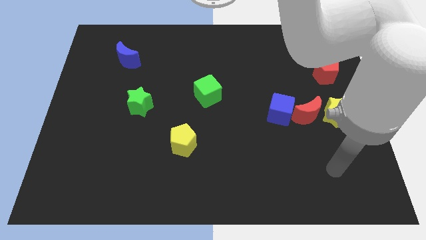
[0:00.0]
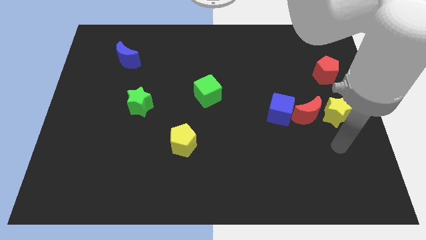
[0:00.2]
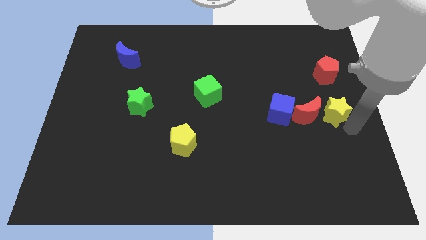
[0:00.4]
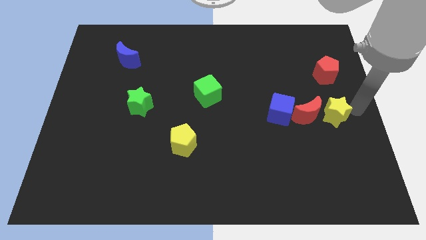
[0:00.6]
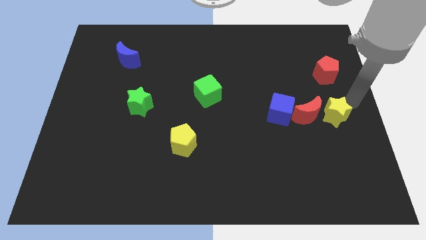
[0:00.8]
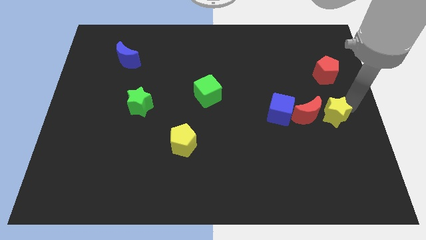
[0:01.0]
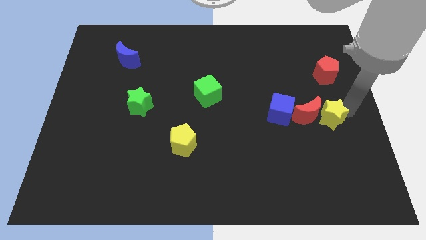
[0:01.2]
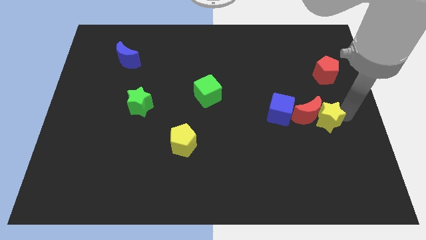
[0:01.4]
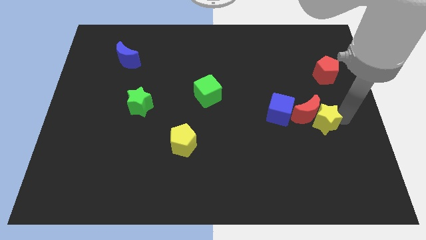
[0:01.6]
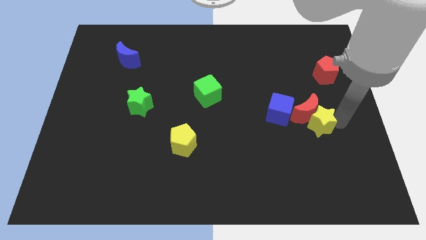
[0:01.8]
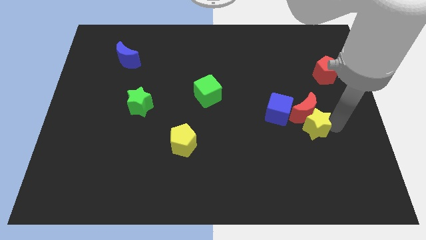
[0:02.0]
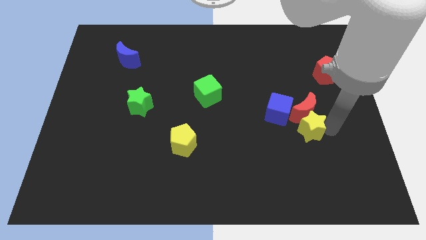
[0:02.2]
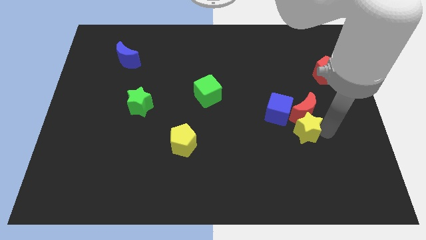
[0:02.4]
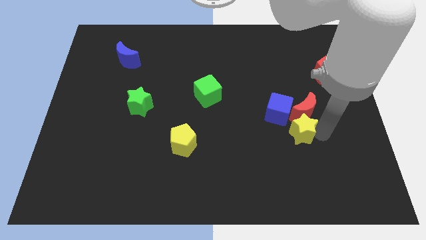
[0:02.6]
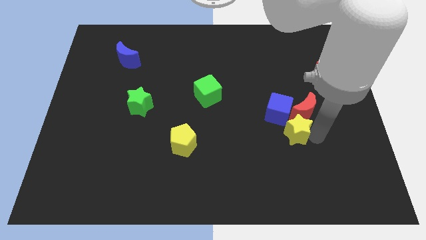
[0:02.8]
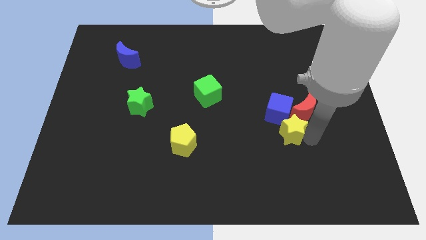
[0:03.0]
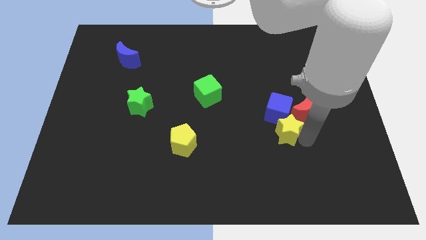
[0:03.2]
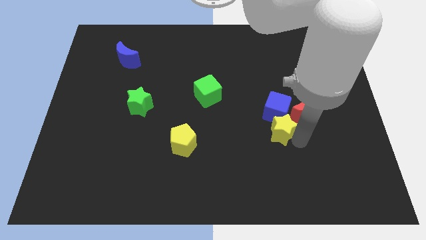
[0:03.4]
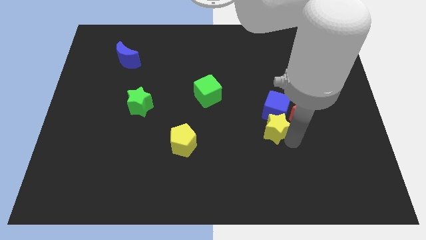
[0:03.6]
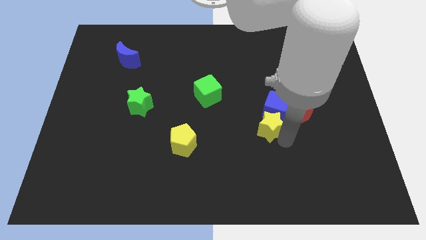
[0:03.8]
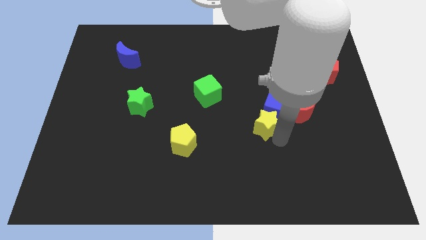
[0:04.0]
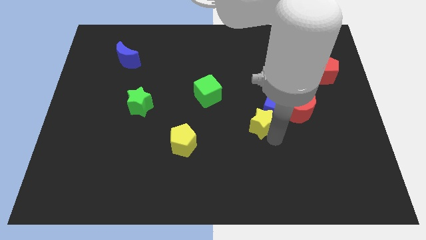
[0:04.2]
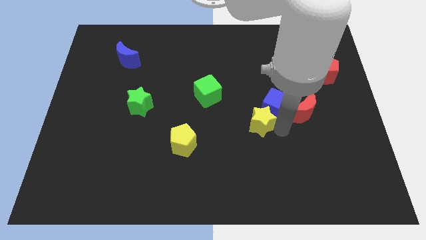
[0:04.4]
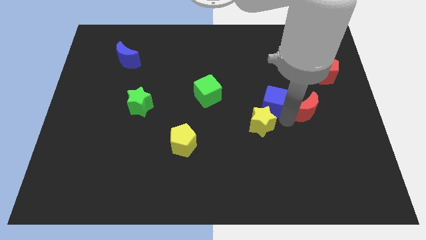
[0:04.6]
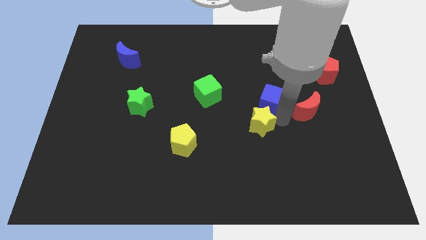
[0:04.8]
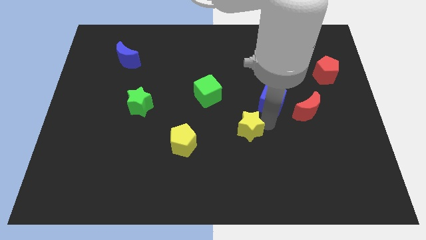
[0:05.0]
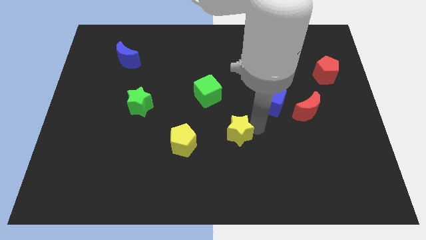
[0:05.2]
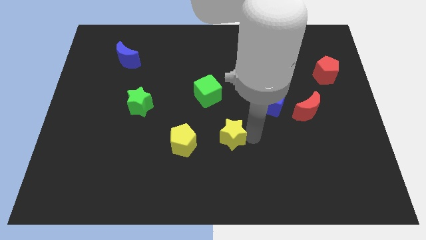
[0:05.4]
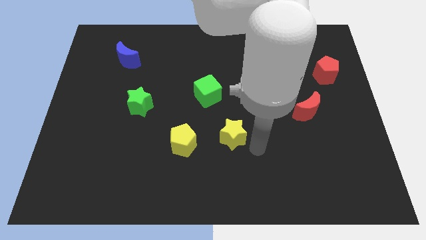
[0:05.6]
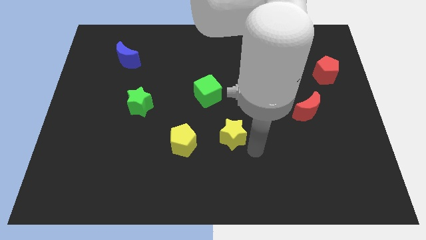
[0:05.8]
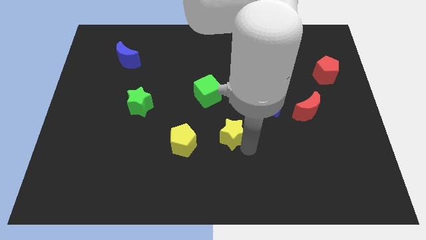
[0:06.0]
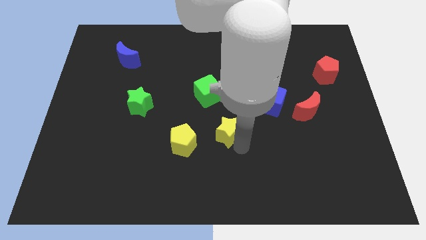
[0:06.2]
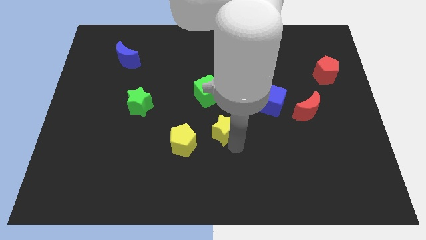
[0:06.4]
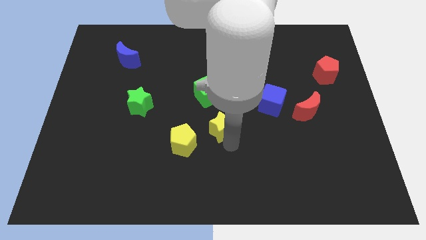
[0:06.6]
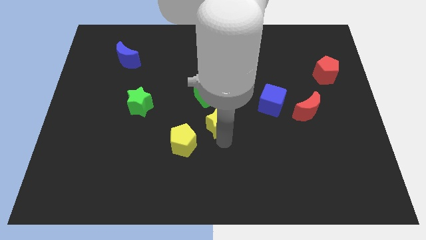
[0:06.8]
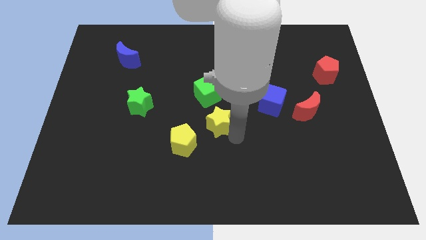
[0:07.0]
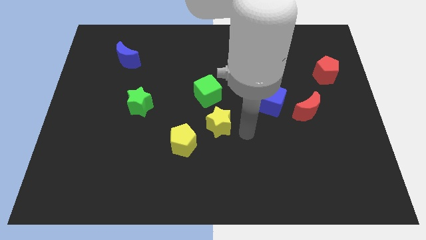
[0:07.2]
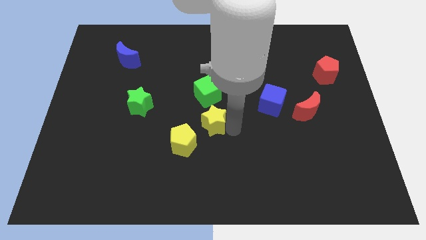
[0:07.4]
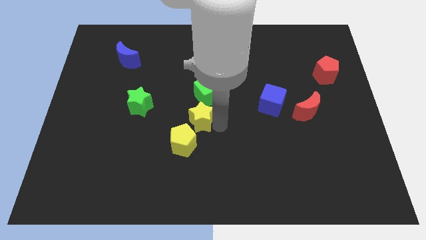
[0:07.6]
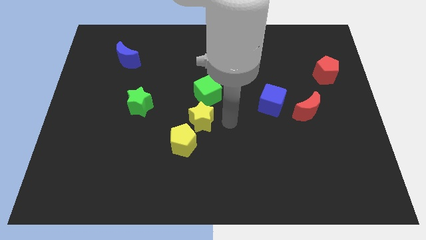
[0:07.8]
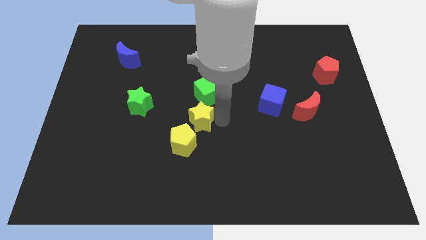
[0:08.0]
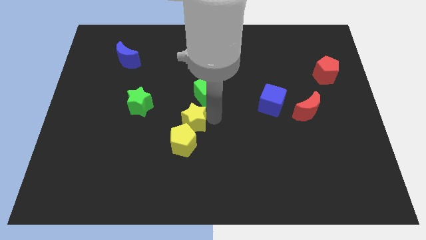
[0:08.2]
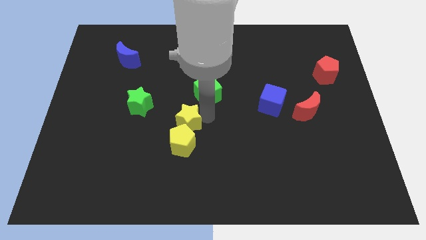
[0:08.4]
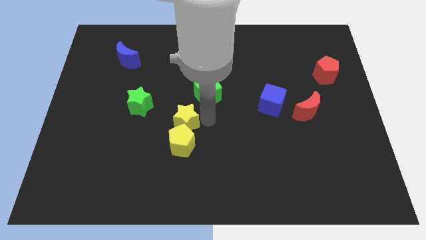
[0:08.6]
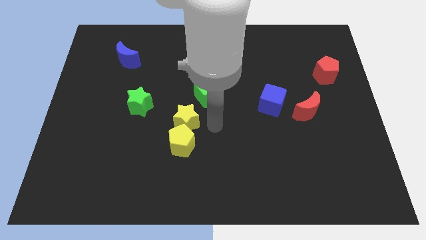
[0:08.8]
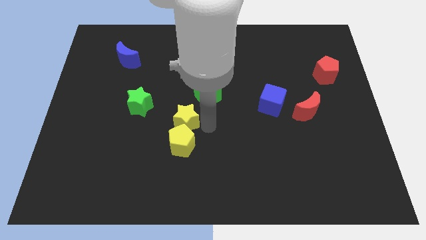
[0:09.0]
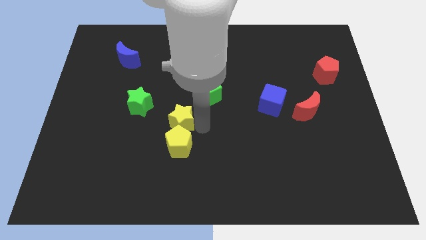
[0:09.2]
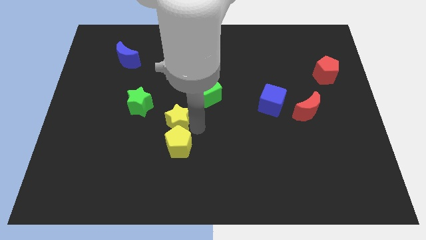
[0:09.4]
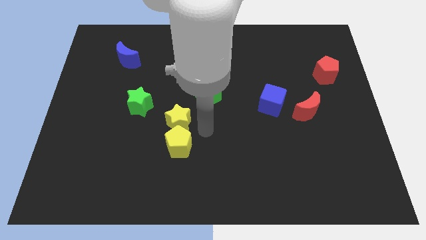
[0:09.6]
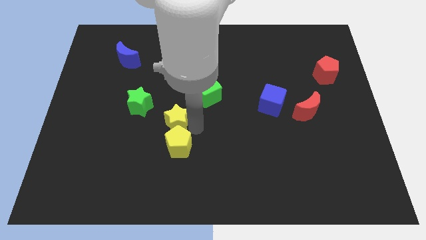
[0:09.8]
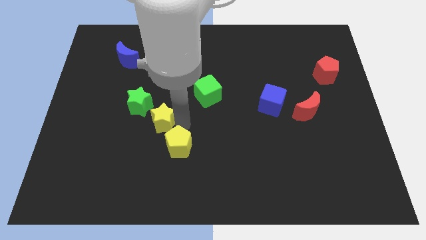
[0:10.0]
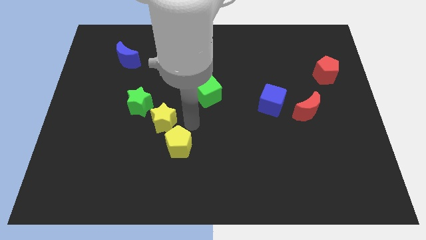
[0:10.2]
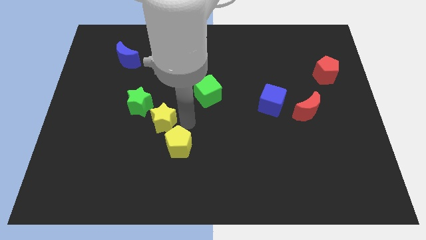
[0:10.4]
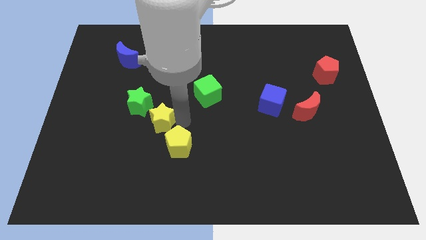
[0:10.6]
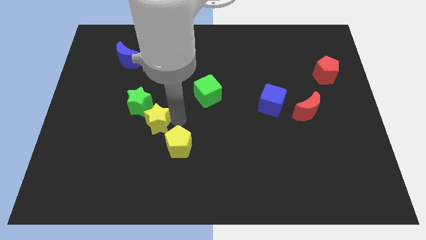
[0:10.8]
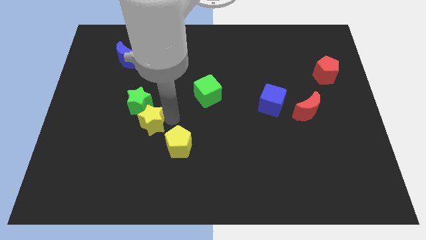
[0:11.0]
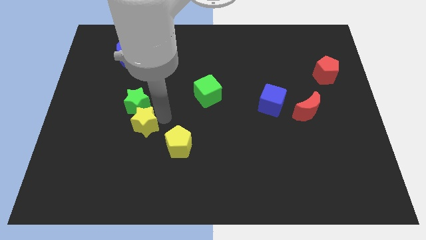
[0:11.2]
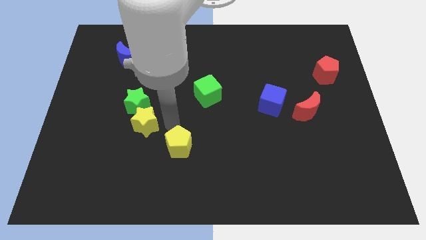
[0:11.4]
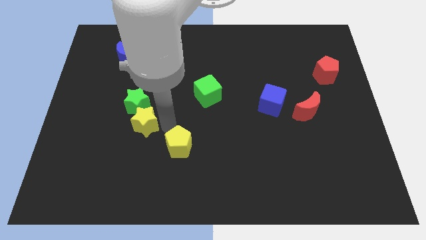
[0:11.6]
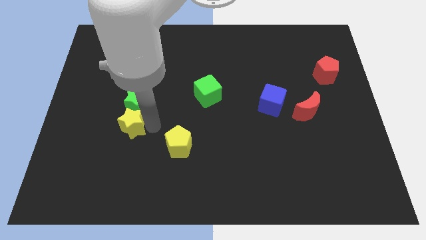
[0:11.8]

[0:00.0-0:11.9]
slide the yellow star diagonally down and to the left of the green star

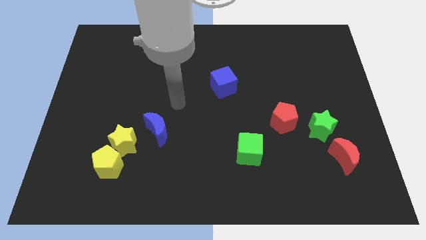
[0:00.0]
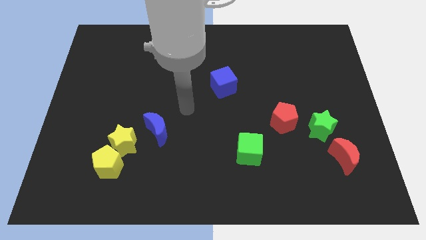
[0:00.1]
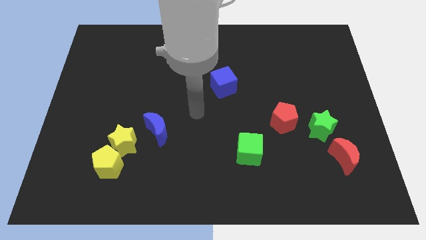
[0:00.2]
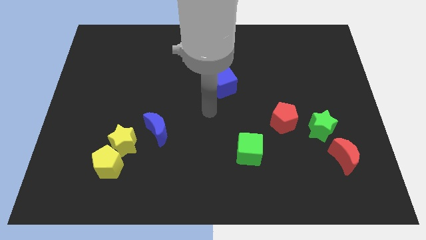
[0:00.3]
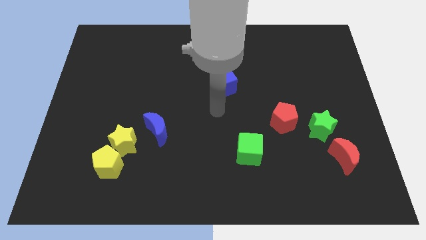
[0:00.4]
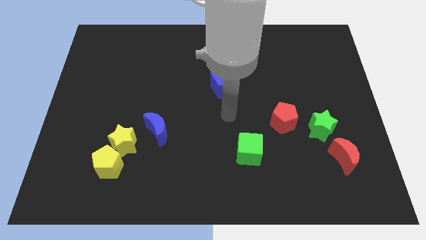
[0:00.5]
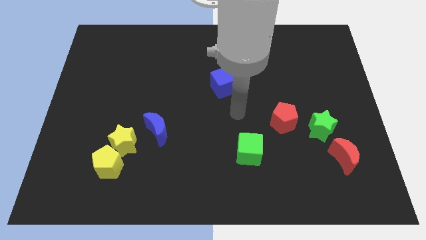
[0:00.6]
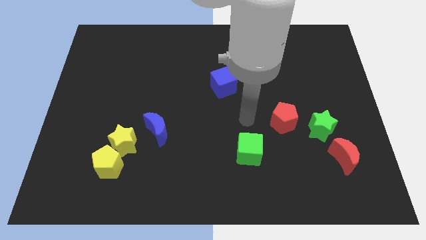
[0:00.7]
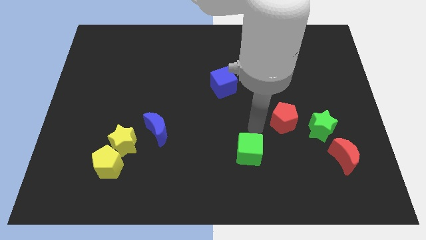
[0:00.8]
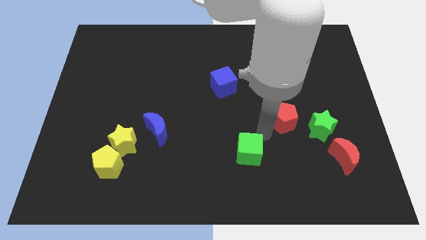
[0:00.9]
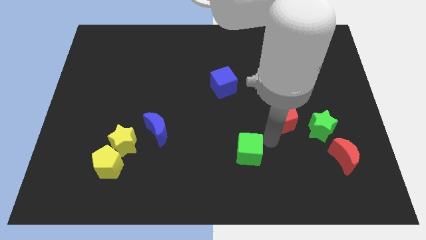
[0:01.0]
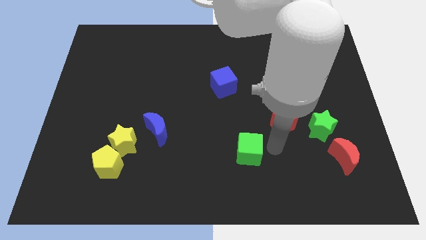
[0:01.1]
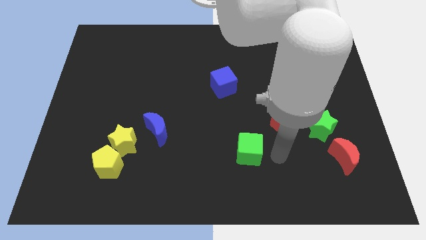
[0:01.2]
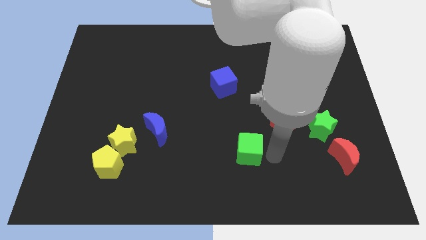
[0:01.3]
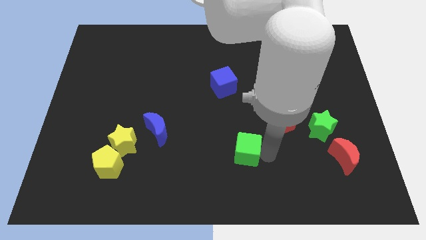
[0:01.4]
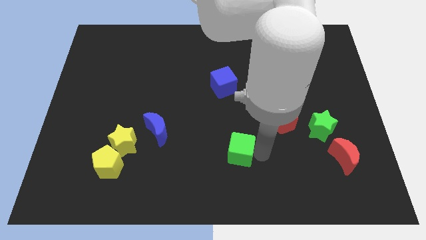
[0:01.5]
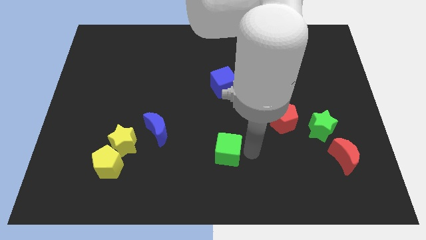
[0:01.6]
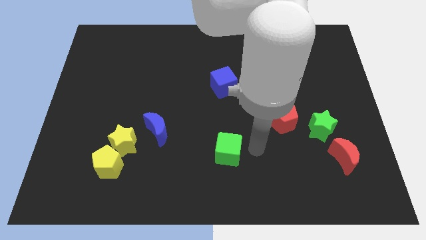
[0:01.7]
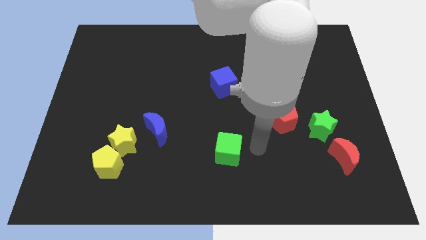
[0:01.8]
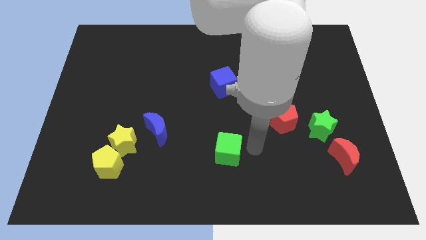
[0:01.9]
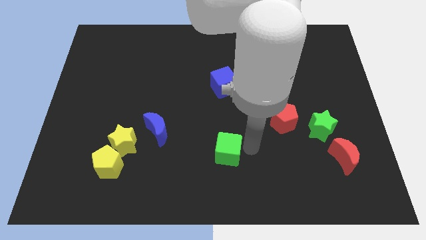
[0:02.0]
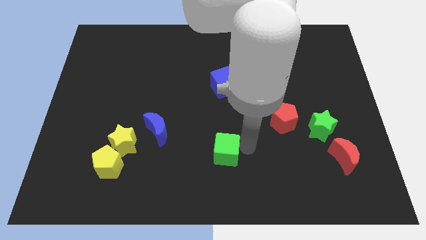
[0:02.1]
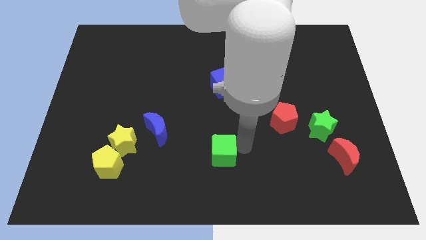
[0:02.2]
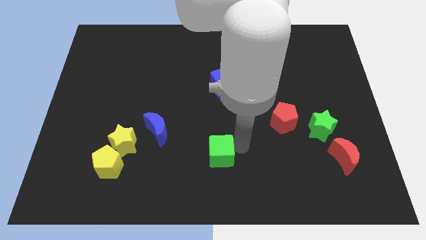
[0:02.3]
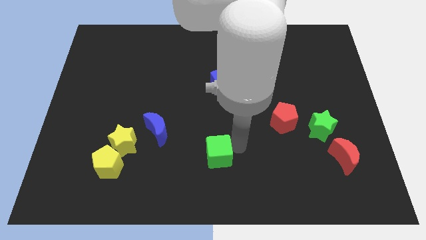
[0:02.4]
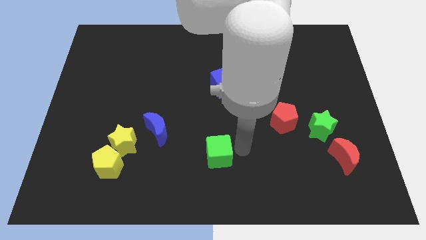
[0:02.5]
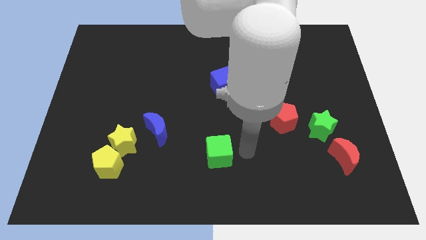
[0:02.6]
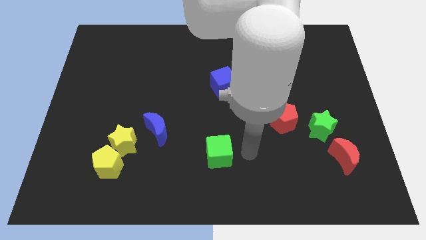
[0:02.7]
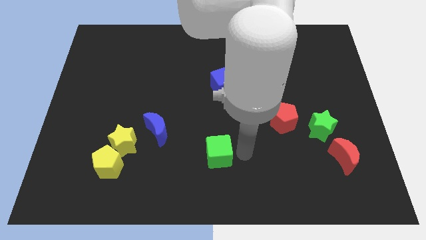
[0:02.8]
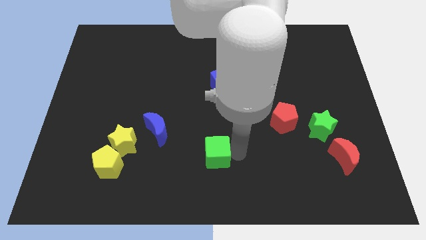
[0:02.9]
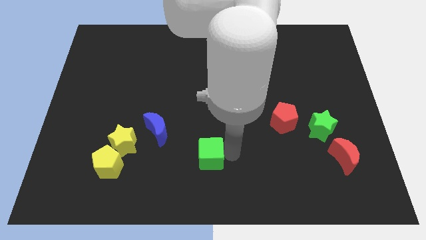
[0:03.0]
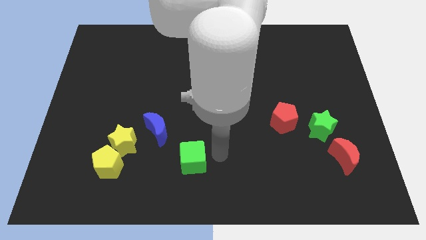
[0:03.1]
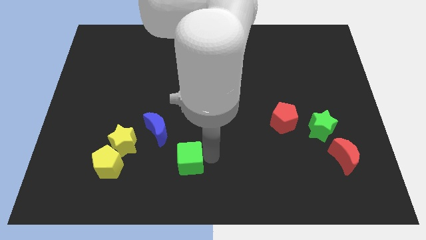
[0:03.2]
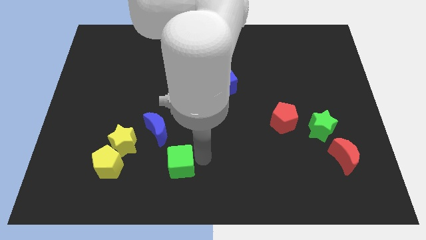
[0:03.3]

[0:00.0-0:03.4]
put the green cube just right of the yellow pentagon
